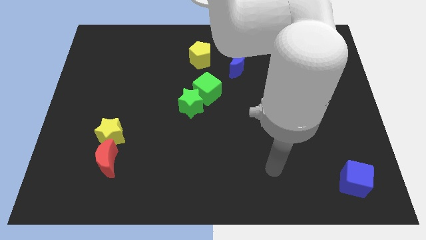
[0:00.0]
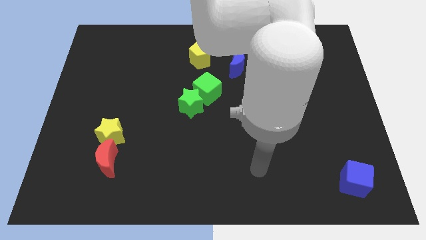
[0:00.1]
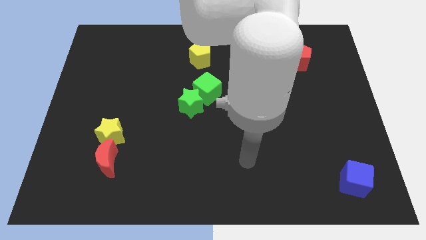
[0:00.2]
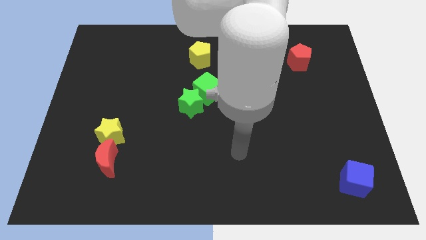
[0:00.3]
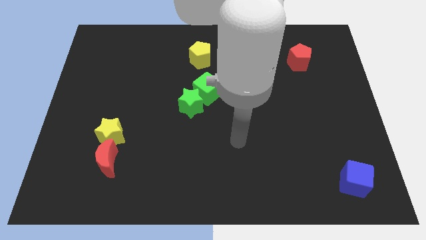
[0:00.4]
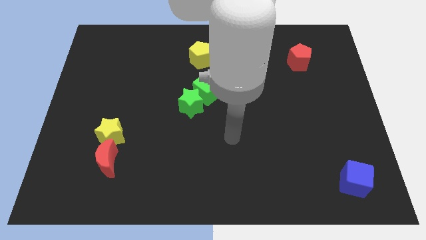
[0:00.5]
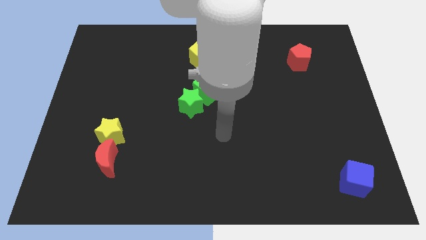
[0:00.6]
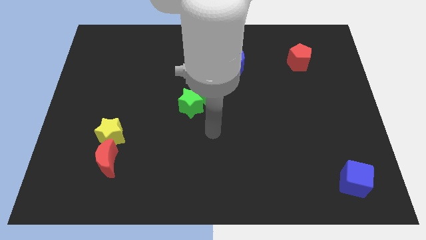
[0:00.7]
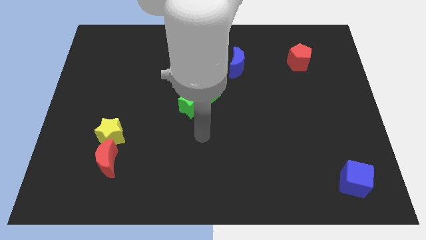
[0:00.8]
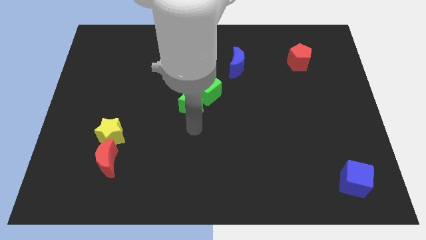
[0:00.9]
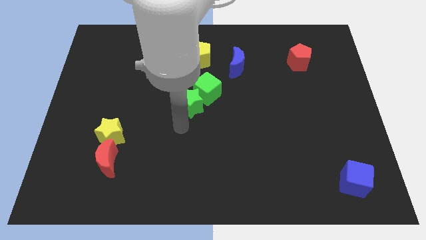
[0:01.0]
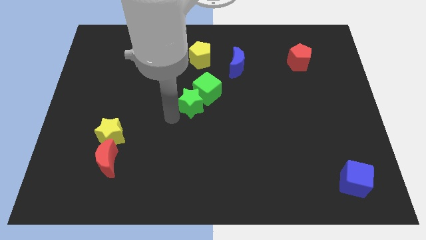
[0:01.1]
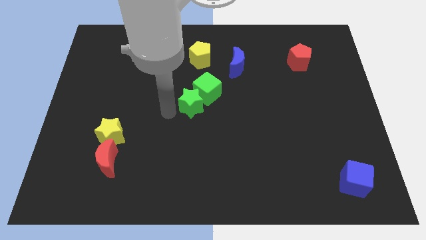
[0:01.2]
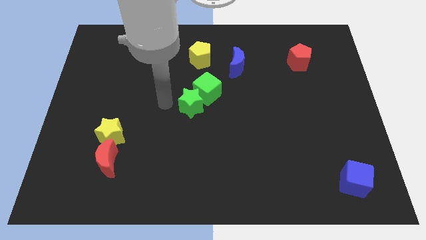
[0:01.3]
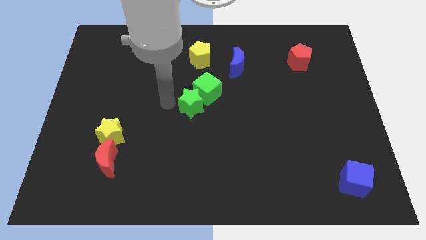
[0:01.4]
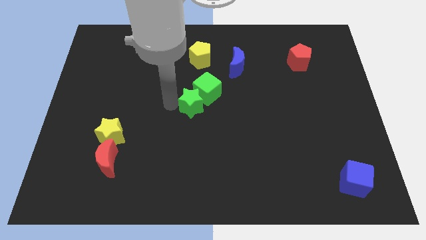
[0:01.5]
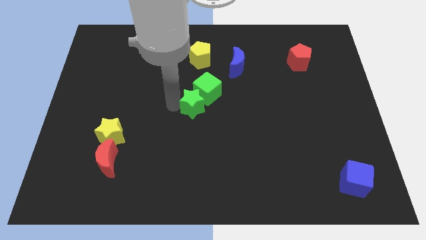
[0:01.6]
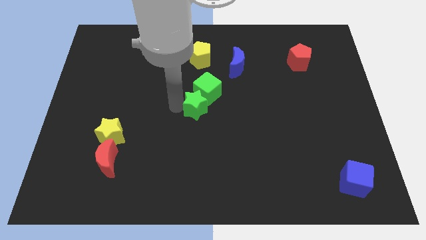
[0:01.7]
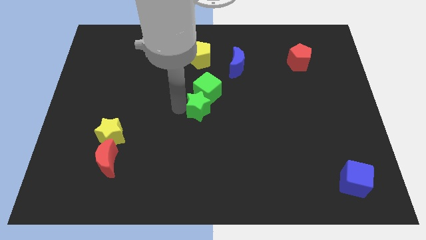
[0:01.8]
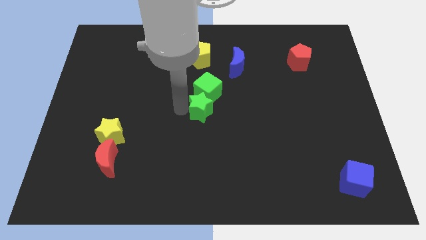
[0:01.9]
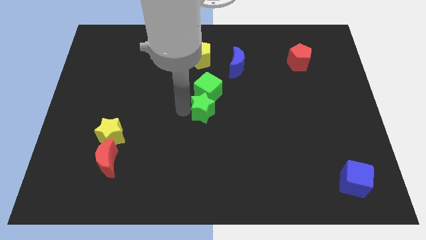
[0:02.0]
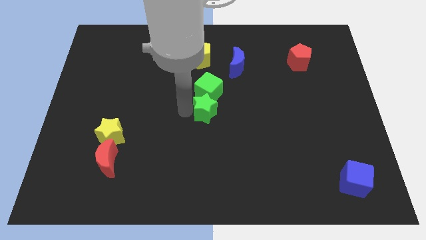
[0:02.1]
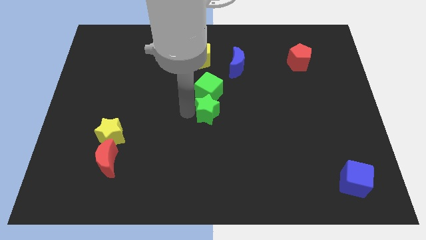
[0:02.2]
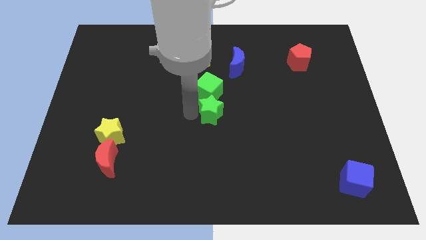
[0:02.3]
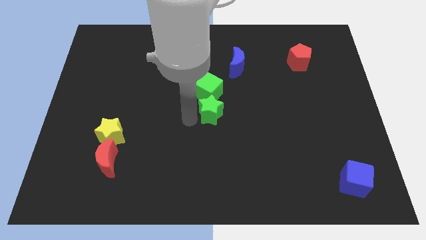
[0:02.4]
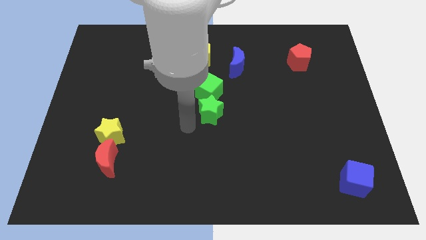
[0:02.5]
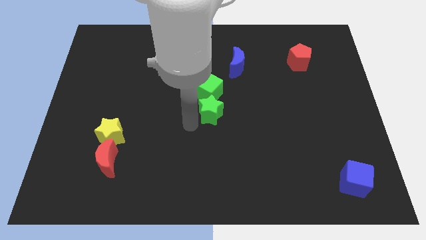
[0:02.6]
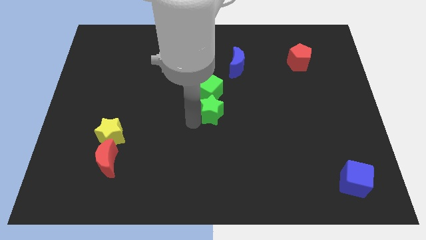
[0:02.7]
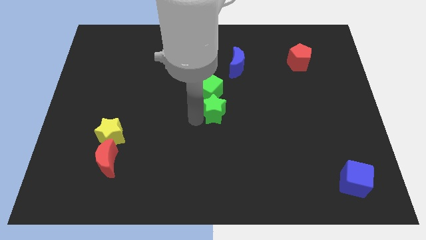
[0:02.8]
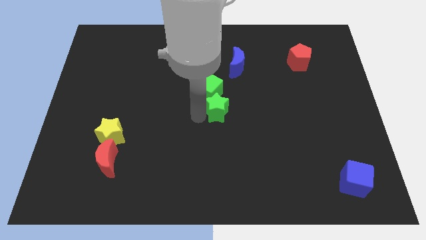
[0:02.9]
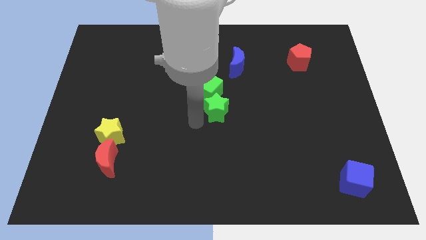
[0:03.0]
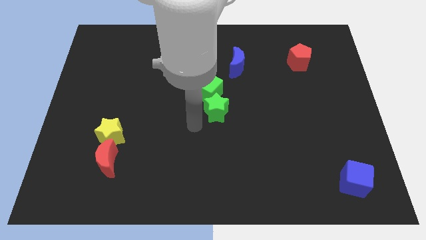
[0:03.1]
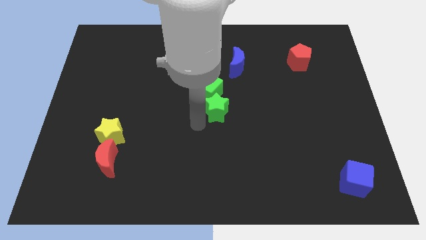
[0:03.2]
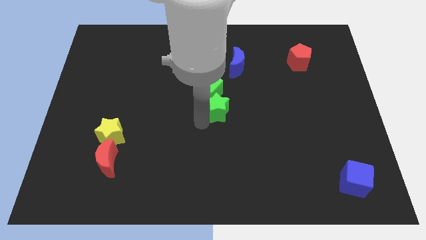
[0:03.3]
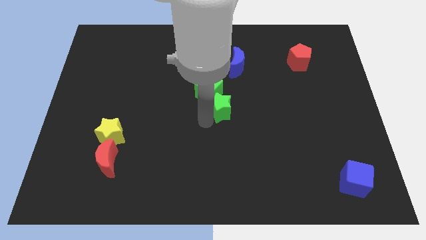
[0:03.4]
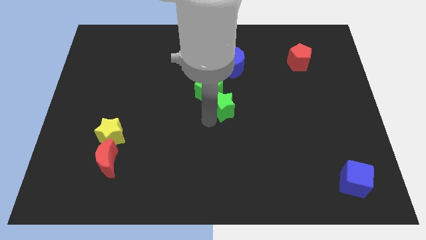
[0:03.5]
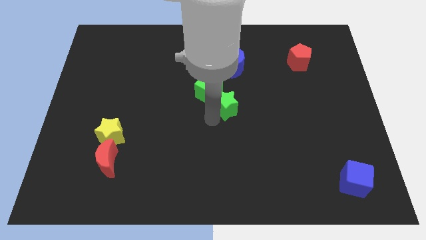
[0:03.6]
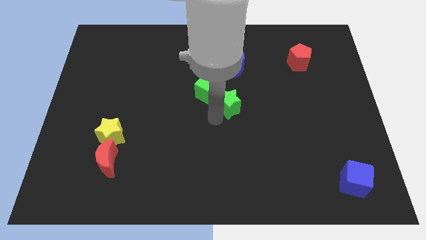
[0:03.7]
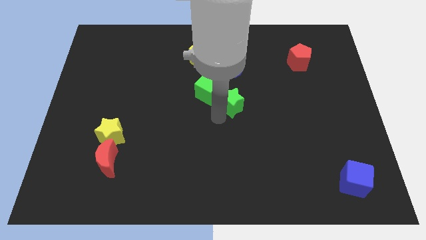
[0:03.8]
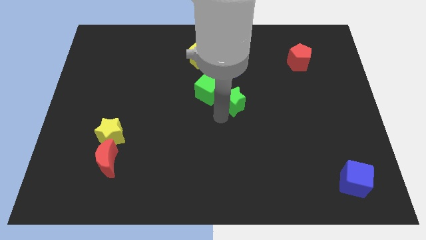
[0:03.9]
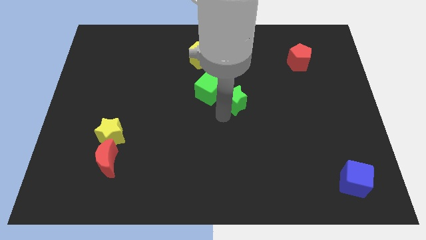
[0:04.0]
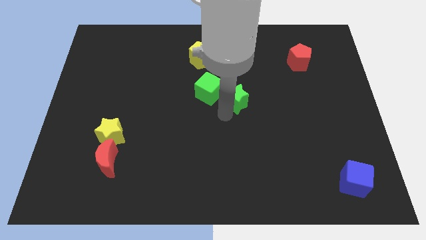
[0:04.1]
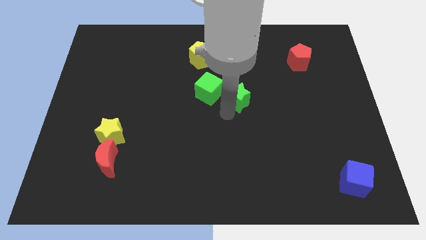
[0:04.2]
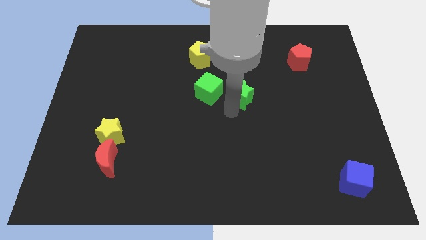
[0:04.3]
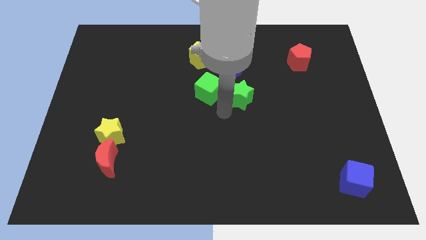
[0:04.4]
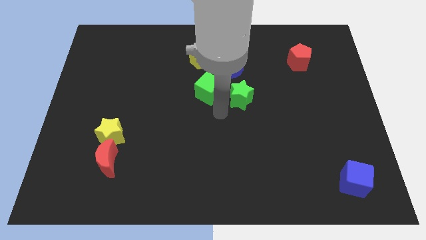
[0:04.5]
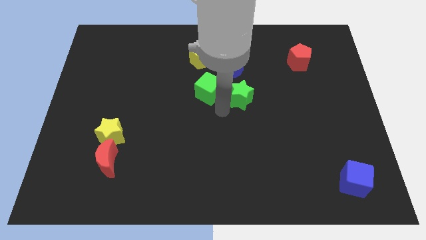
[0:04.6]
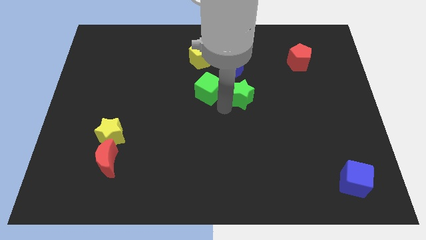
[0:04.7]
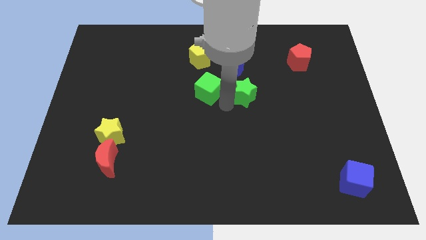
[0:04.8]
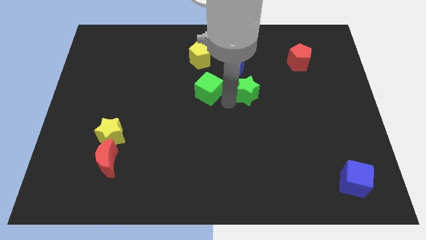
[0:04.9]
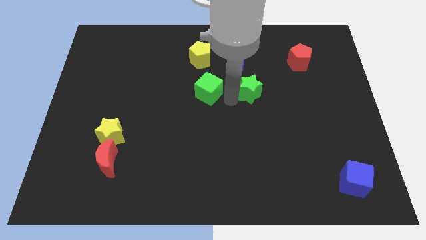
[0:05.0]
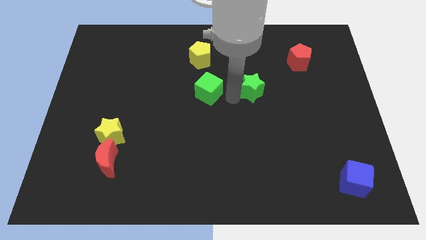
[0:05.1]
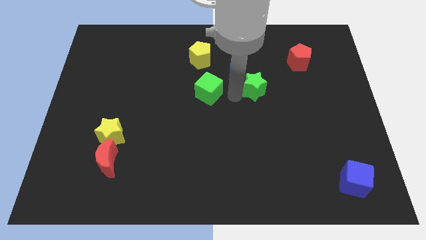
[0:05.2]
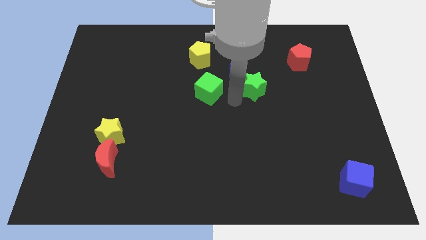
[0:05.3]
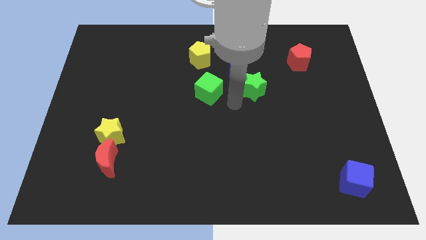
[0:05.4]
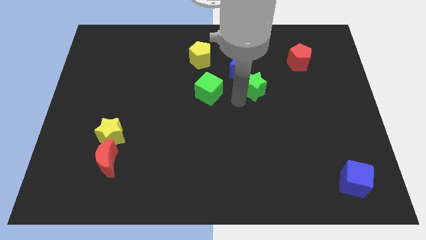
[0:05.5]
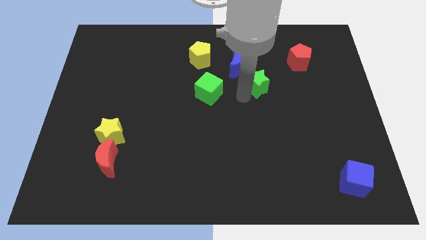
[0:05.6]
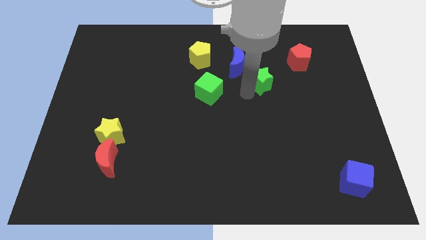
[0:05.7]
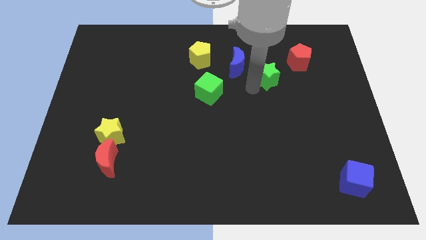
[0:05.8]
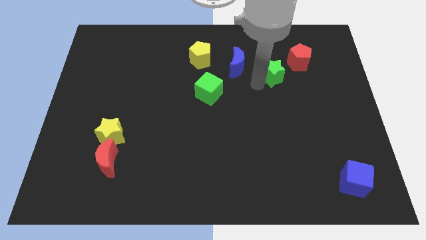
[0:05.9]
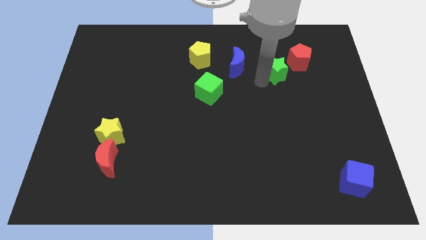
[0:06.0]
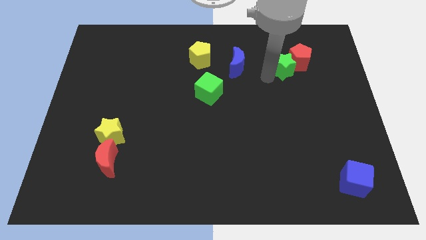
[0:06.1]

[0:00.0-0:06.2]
put the green star close to the red pentagon

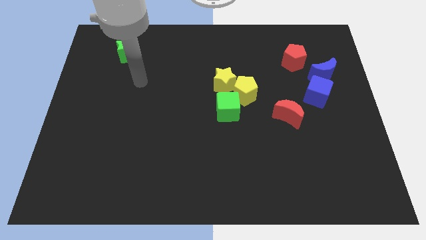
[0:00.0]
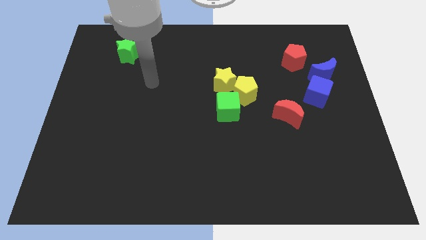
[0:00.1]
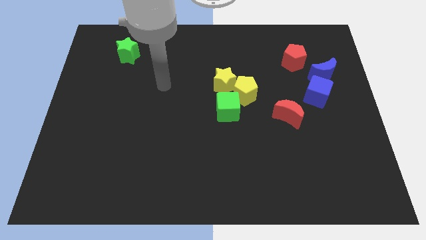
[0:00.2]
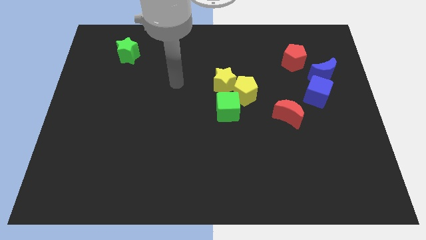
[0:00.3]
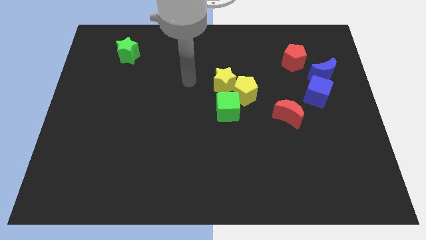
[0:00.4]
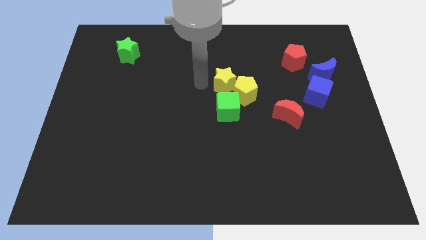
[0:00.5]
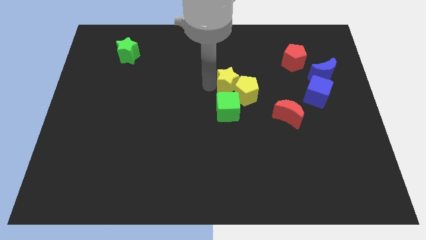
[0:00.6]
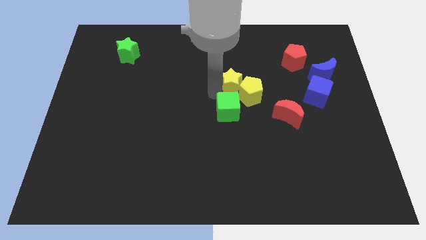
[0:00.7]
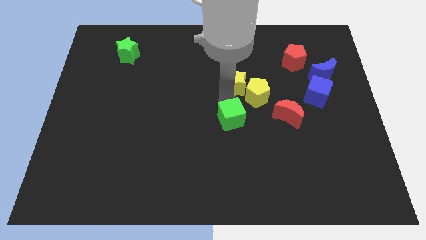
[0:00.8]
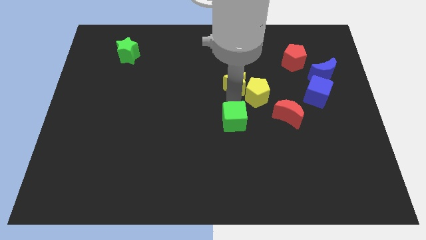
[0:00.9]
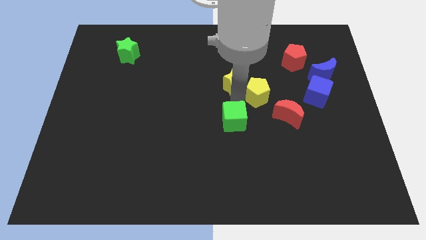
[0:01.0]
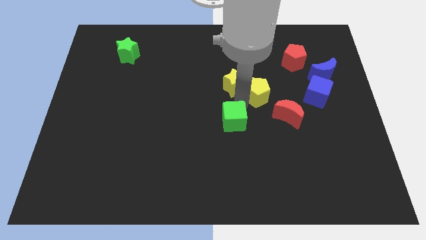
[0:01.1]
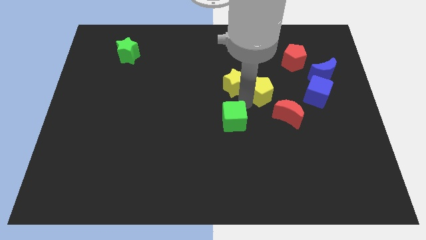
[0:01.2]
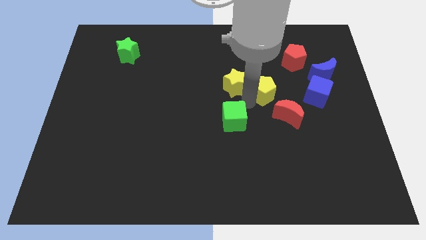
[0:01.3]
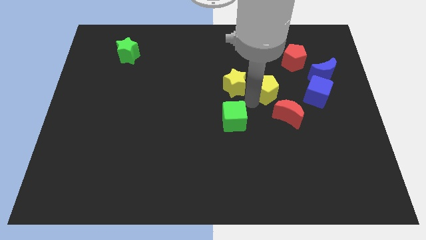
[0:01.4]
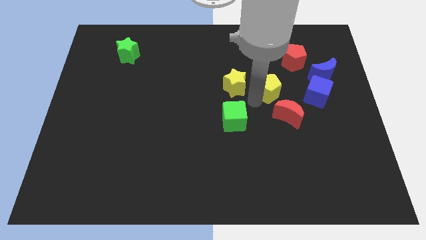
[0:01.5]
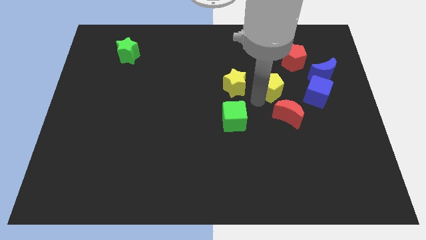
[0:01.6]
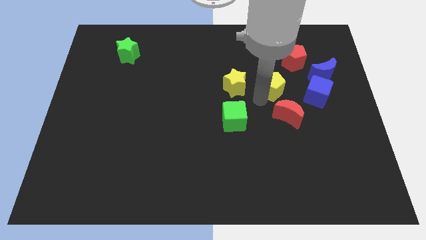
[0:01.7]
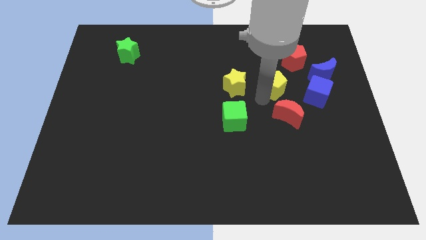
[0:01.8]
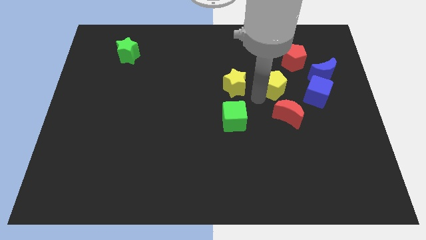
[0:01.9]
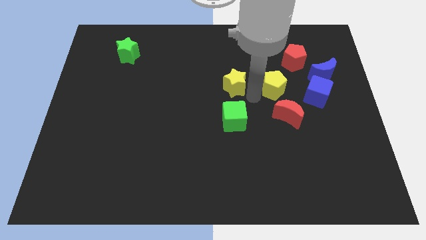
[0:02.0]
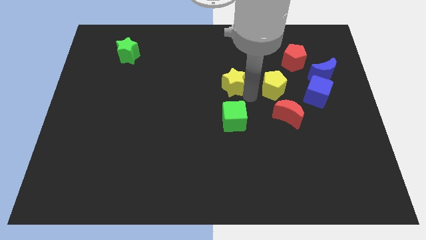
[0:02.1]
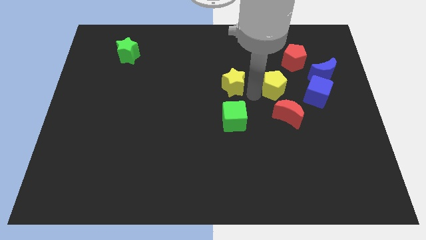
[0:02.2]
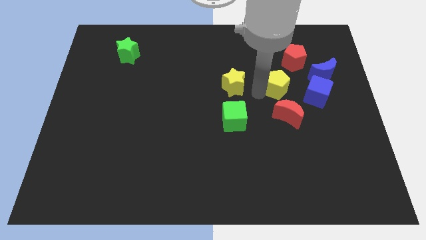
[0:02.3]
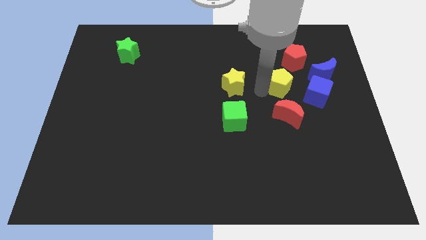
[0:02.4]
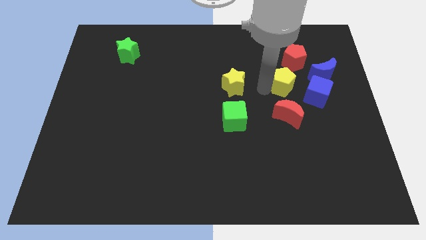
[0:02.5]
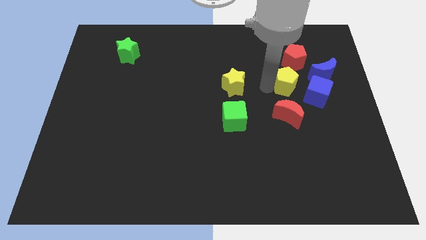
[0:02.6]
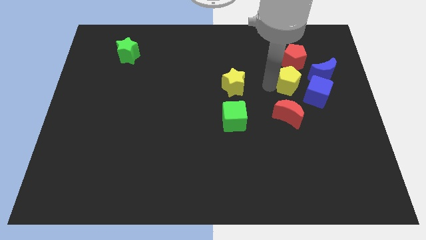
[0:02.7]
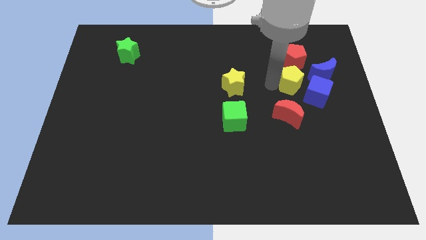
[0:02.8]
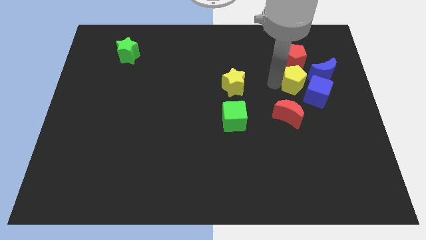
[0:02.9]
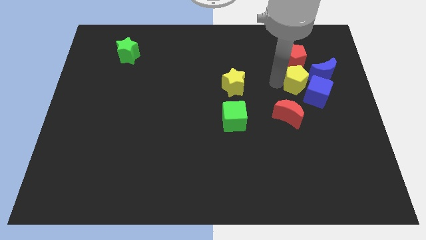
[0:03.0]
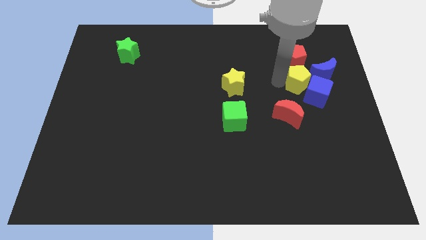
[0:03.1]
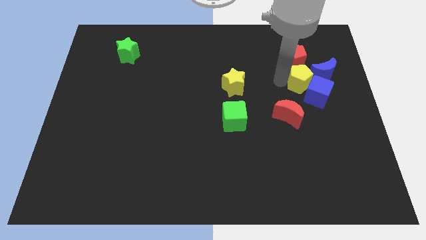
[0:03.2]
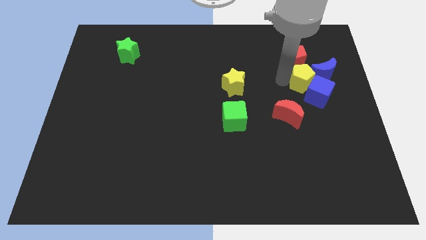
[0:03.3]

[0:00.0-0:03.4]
slide the yellow pentagon to the blue moon
